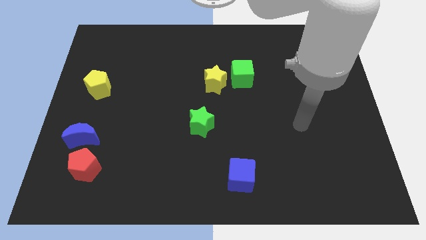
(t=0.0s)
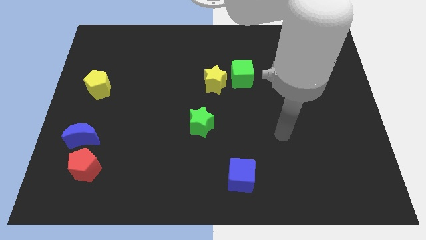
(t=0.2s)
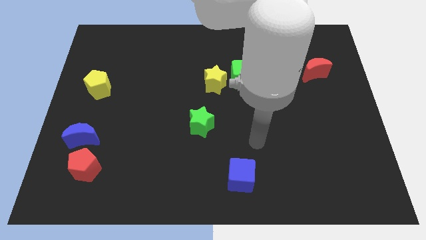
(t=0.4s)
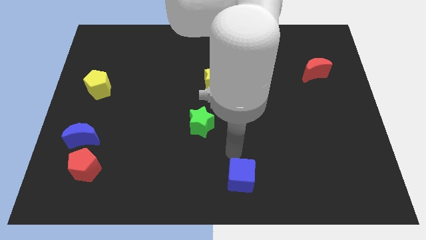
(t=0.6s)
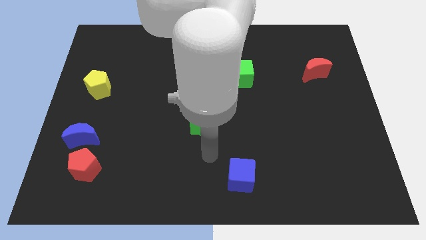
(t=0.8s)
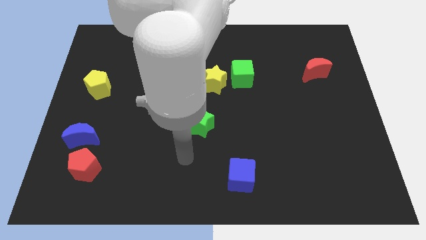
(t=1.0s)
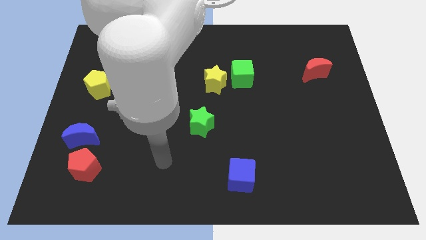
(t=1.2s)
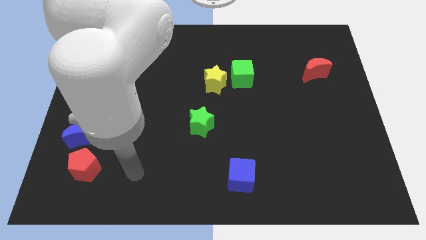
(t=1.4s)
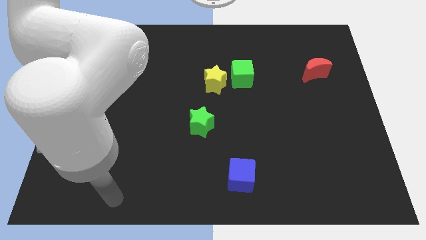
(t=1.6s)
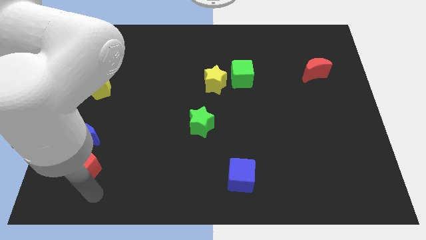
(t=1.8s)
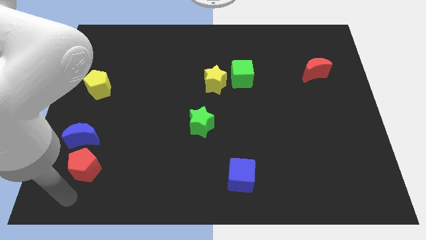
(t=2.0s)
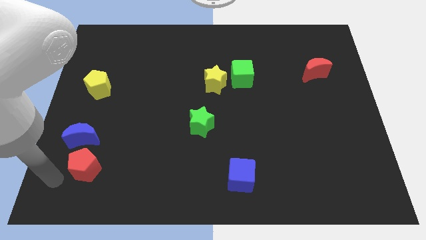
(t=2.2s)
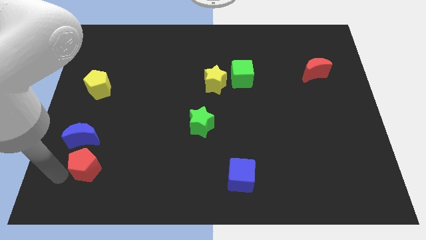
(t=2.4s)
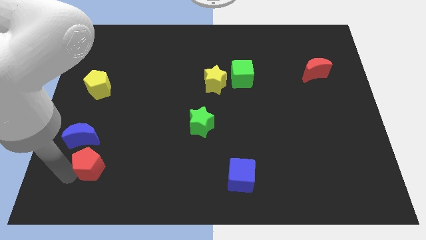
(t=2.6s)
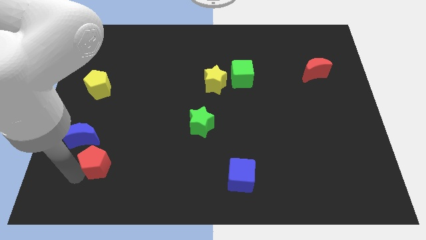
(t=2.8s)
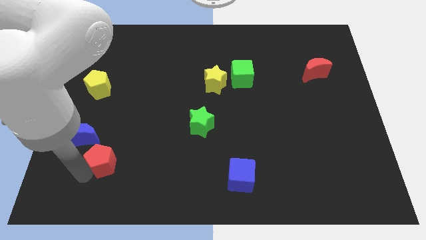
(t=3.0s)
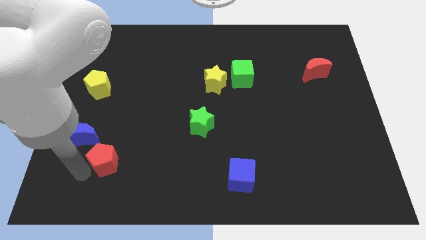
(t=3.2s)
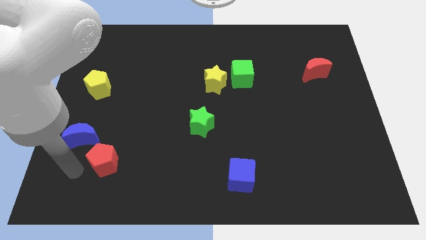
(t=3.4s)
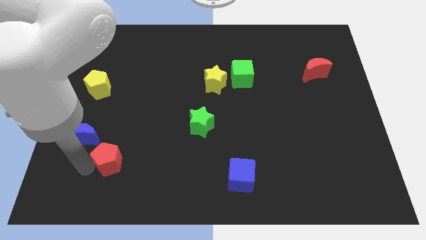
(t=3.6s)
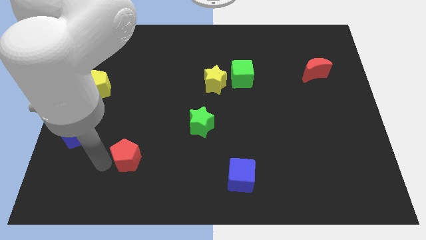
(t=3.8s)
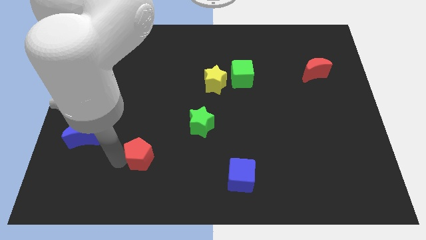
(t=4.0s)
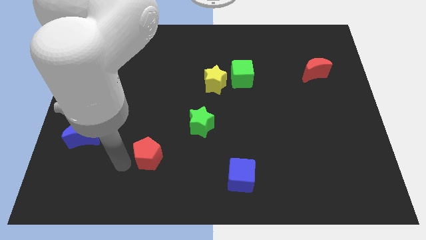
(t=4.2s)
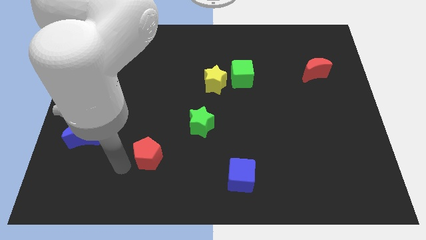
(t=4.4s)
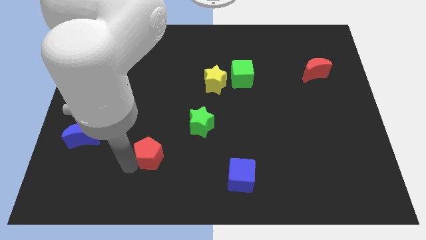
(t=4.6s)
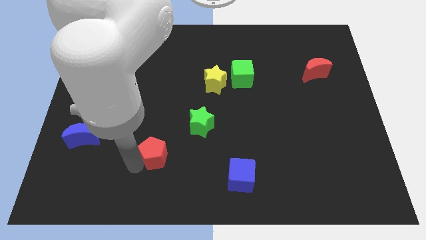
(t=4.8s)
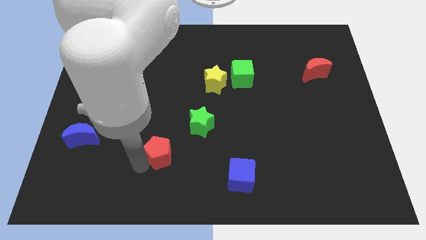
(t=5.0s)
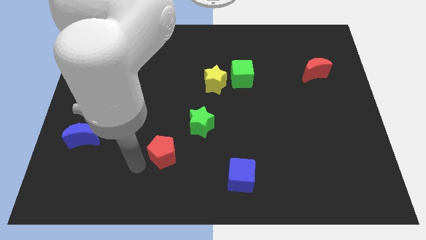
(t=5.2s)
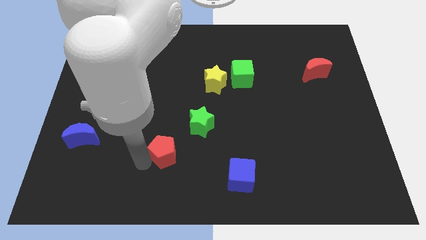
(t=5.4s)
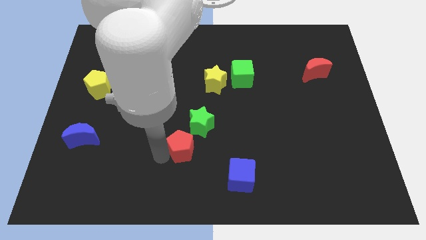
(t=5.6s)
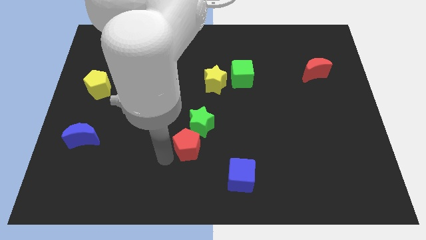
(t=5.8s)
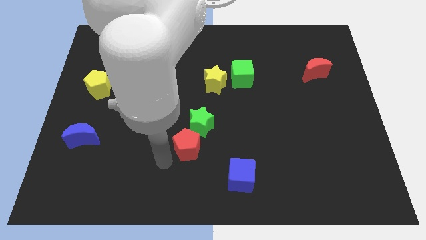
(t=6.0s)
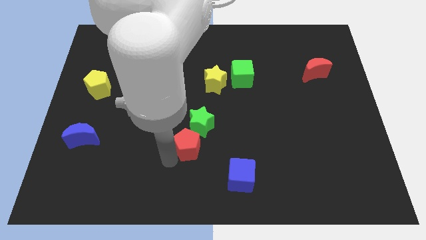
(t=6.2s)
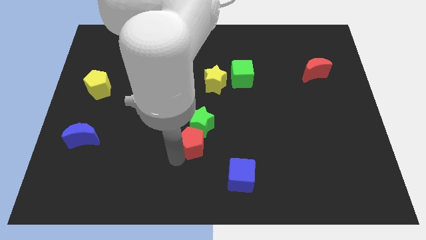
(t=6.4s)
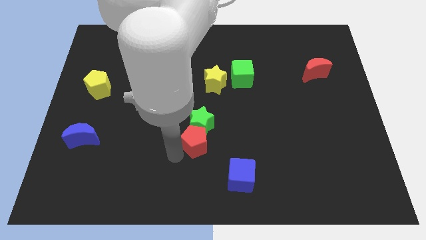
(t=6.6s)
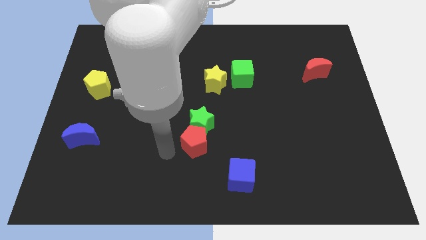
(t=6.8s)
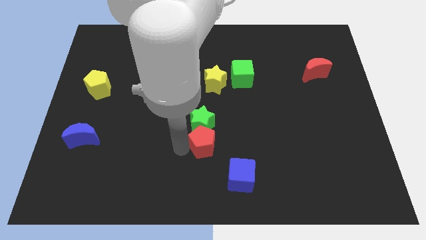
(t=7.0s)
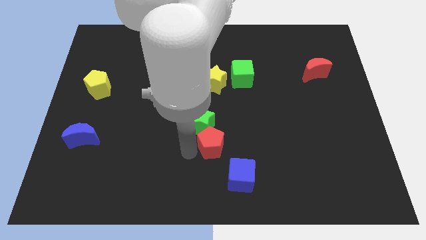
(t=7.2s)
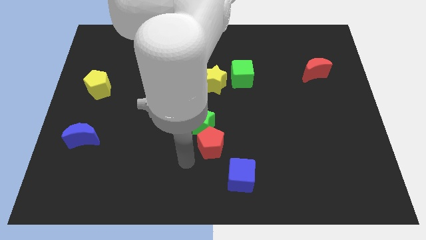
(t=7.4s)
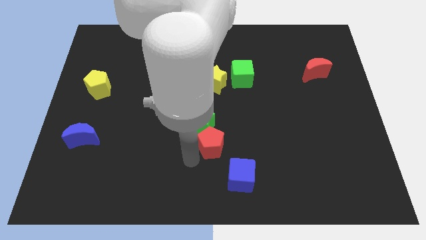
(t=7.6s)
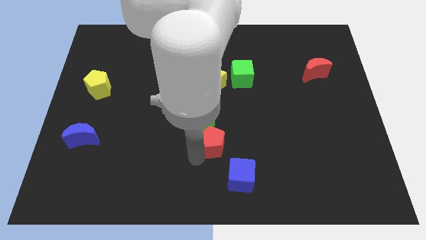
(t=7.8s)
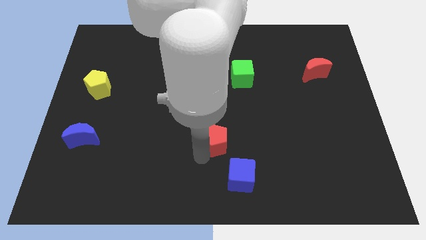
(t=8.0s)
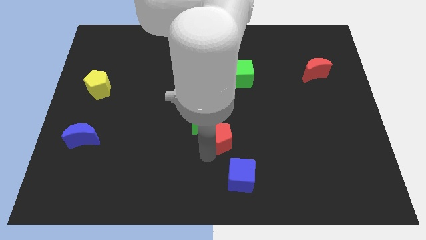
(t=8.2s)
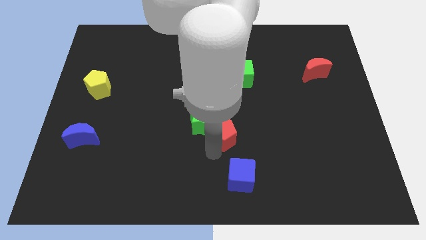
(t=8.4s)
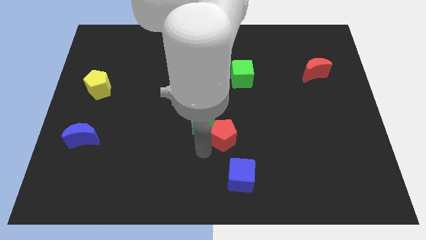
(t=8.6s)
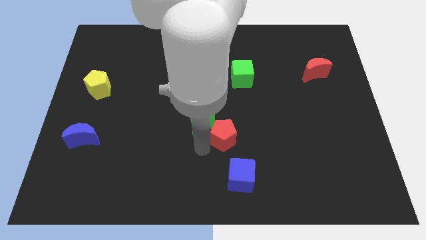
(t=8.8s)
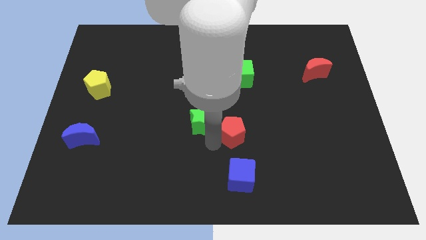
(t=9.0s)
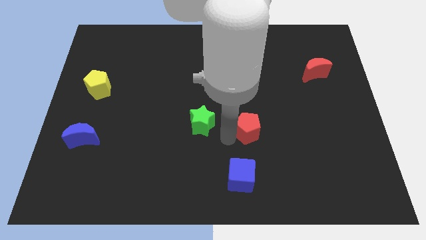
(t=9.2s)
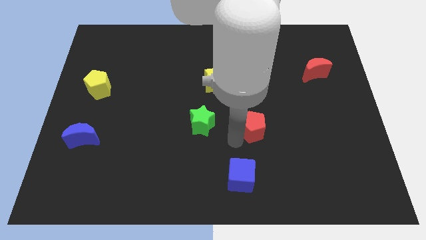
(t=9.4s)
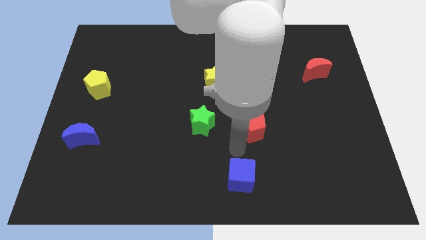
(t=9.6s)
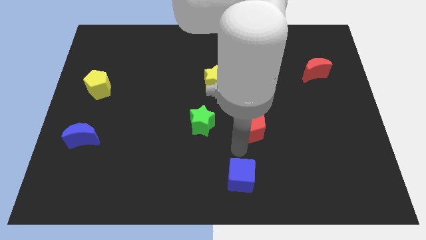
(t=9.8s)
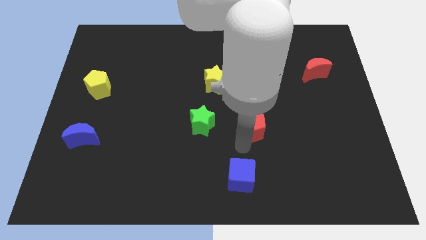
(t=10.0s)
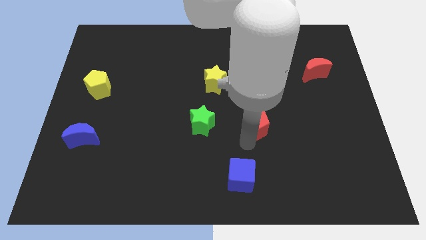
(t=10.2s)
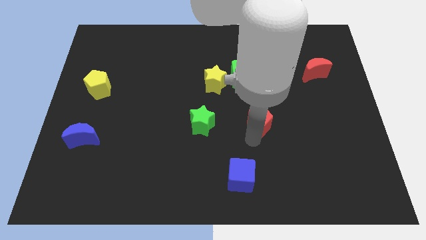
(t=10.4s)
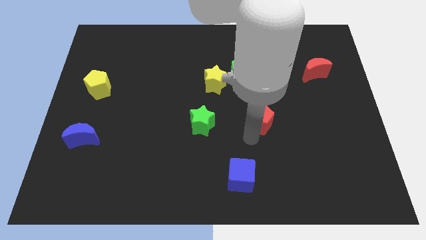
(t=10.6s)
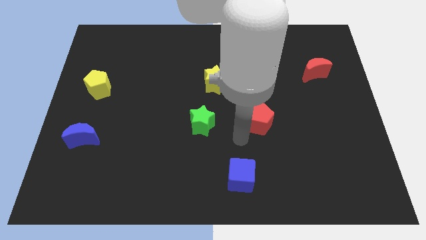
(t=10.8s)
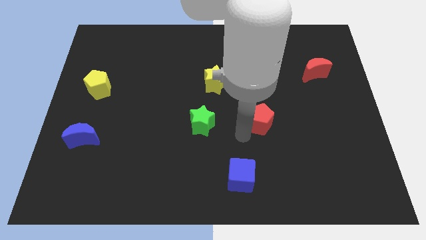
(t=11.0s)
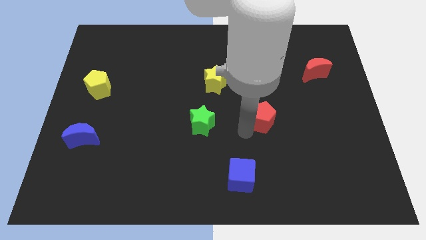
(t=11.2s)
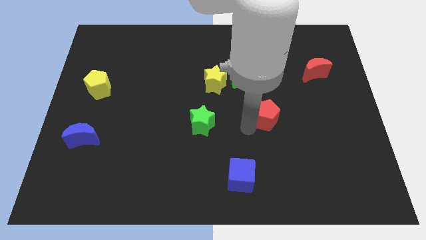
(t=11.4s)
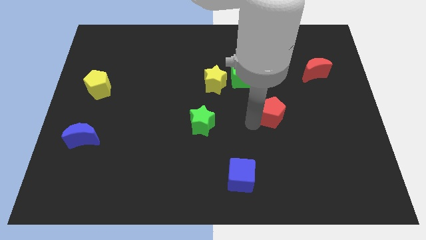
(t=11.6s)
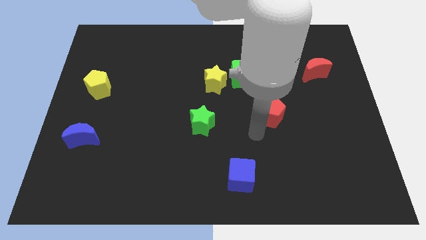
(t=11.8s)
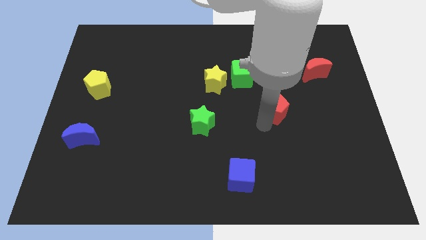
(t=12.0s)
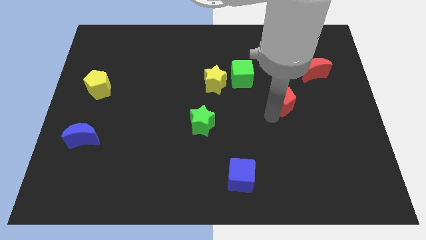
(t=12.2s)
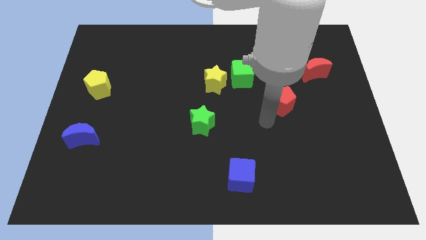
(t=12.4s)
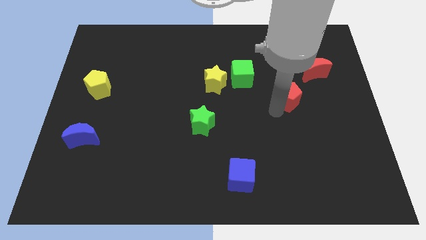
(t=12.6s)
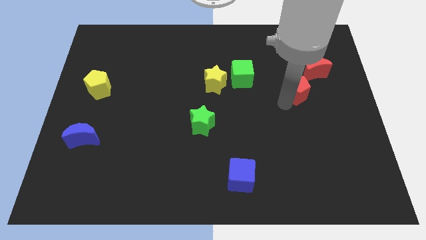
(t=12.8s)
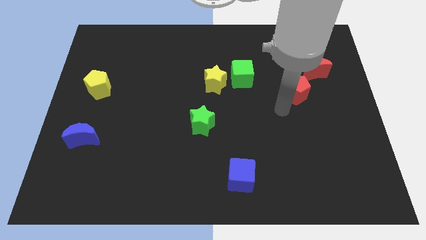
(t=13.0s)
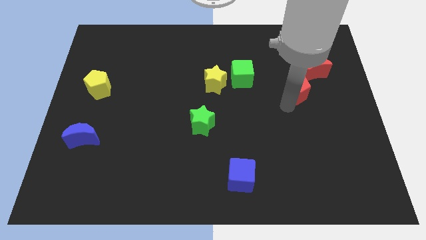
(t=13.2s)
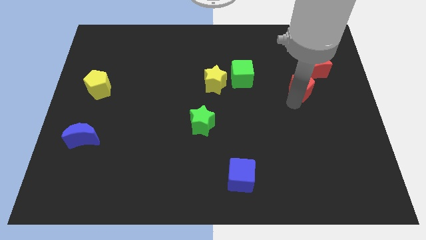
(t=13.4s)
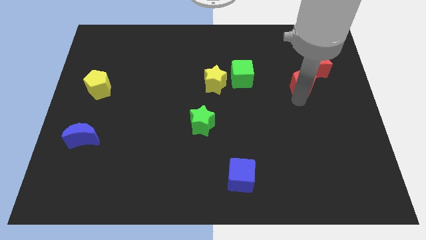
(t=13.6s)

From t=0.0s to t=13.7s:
push the red pentagon to the red moon

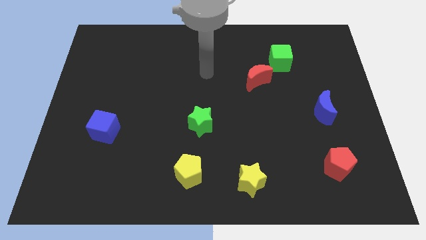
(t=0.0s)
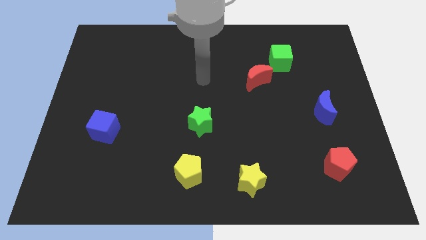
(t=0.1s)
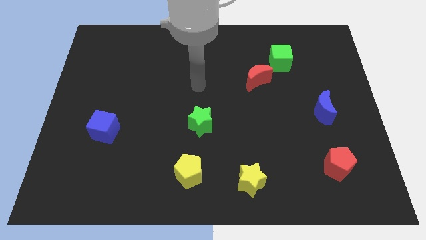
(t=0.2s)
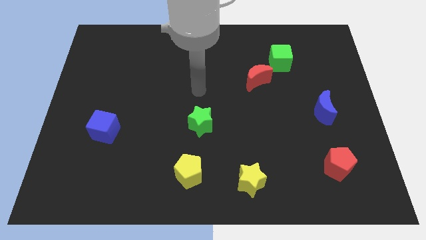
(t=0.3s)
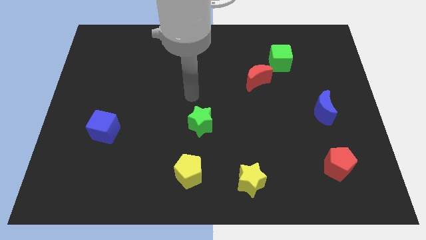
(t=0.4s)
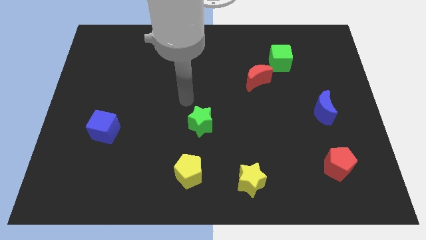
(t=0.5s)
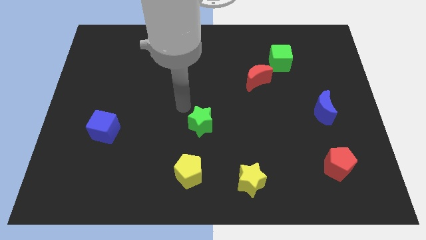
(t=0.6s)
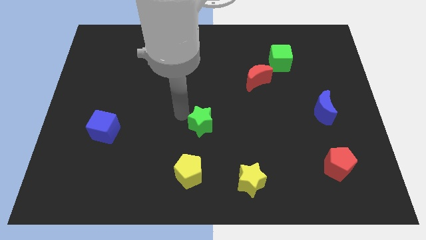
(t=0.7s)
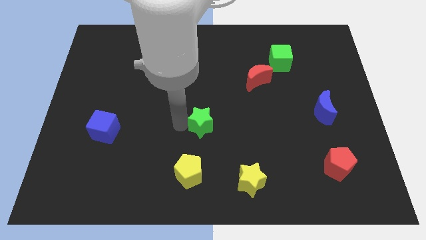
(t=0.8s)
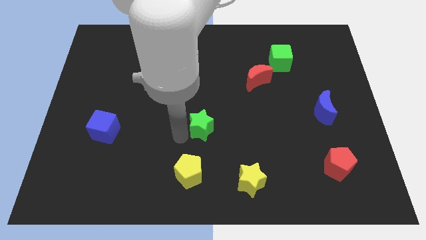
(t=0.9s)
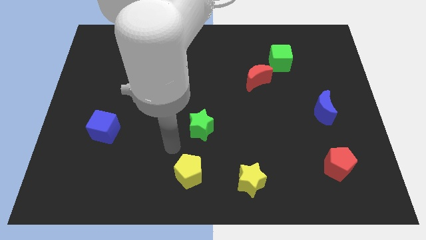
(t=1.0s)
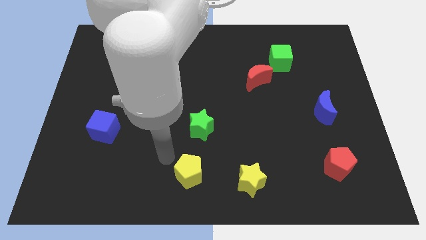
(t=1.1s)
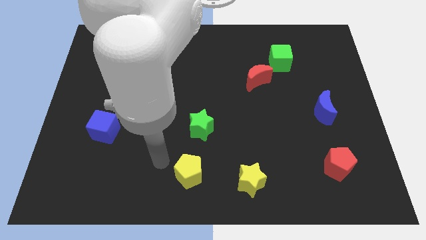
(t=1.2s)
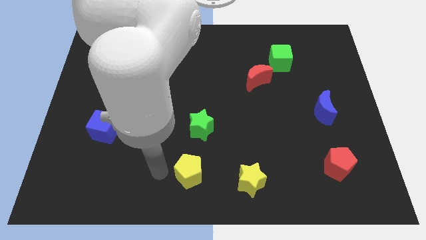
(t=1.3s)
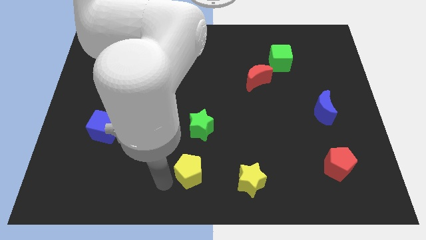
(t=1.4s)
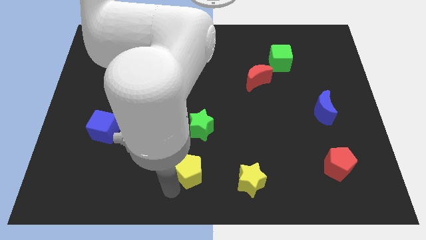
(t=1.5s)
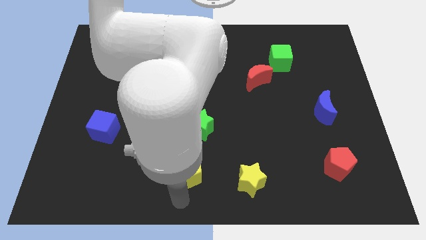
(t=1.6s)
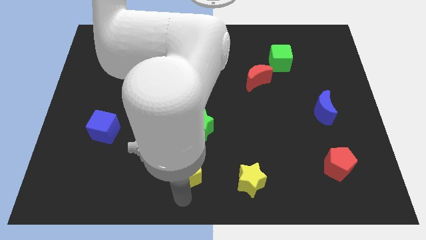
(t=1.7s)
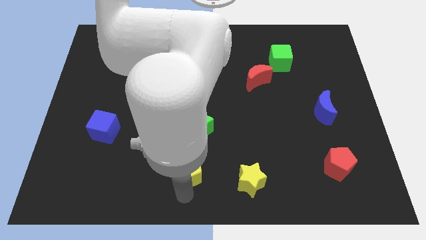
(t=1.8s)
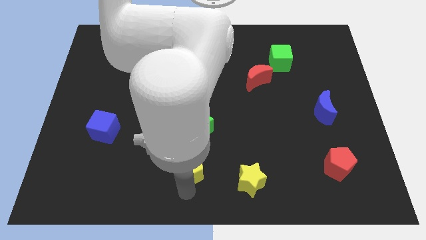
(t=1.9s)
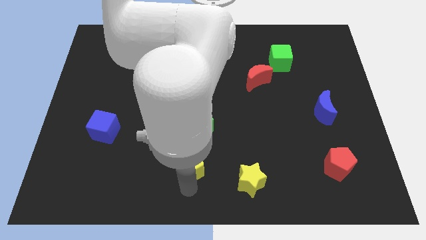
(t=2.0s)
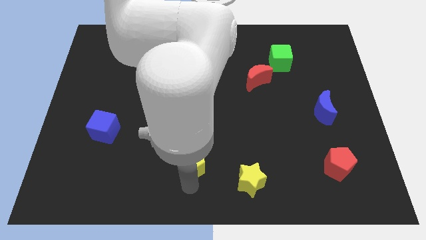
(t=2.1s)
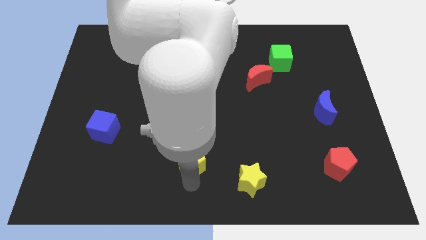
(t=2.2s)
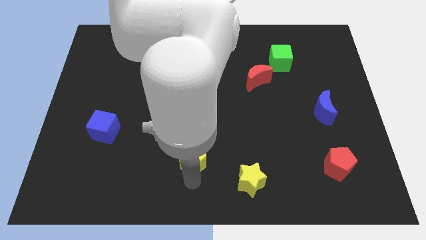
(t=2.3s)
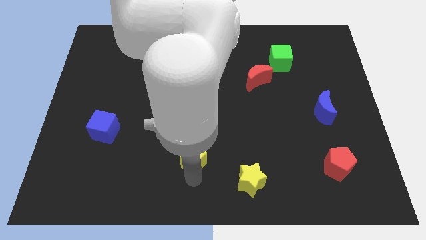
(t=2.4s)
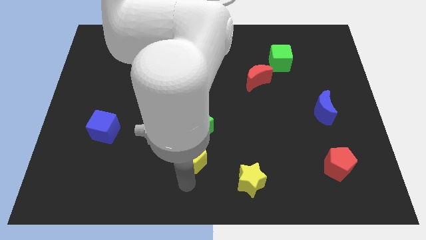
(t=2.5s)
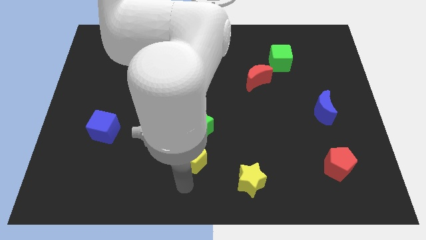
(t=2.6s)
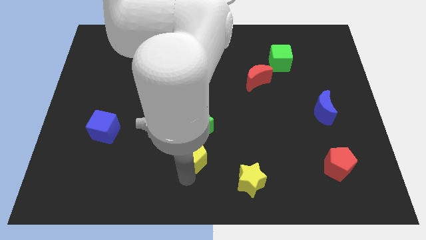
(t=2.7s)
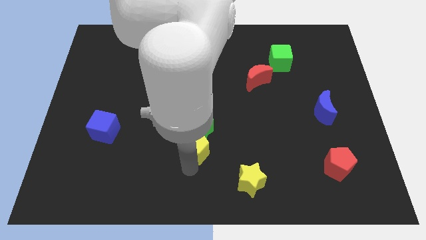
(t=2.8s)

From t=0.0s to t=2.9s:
put the yellow pentagon to the green star
